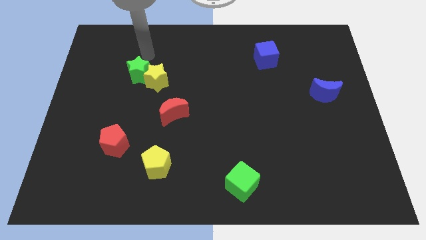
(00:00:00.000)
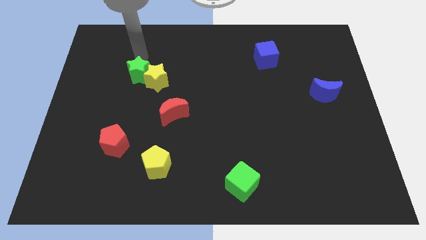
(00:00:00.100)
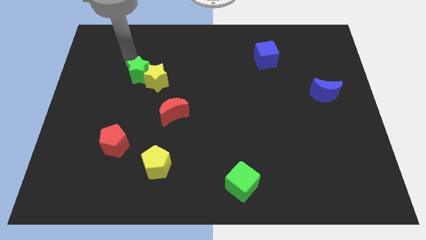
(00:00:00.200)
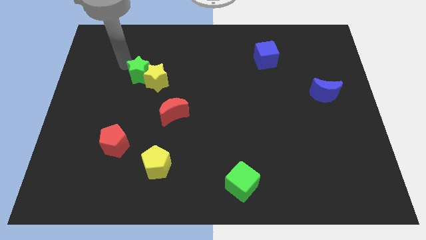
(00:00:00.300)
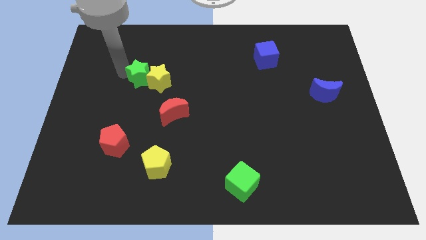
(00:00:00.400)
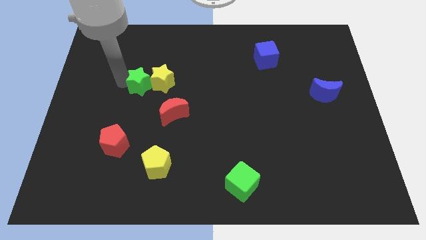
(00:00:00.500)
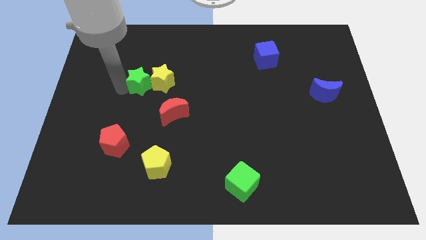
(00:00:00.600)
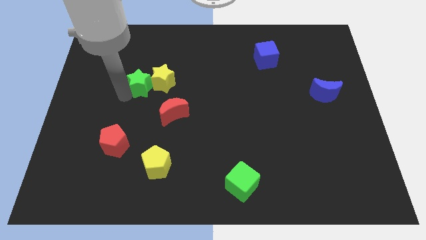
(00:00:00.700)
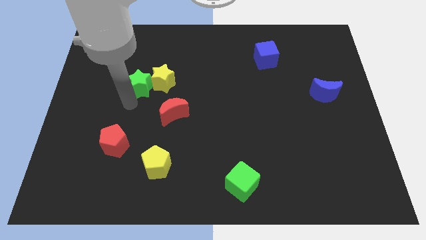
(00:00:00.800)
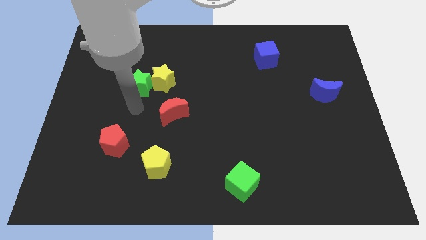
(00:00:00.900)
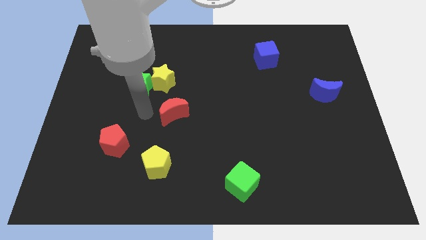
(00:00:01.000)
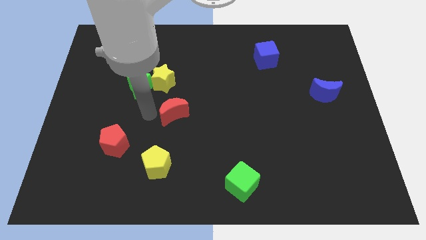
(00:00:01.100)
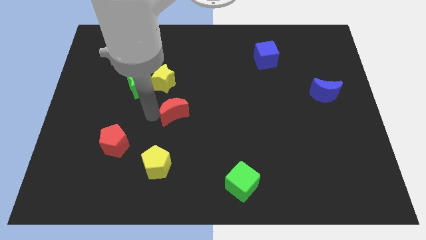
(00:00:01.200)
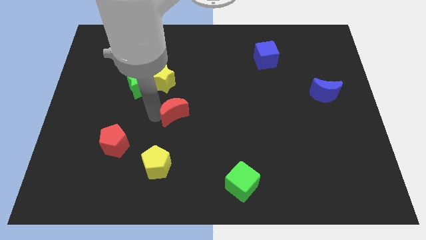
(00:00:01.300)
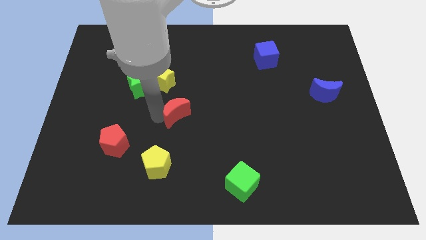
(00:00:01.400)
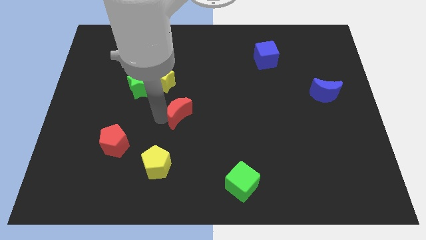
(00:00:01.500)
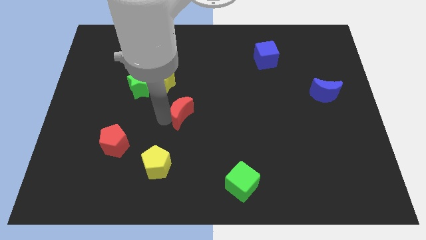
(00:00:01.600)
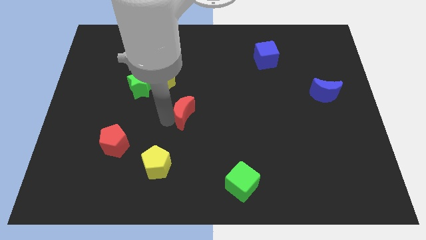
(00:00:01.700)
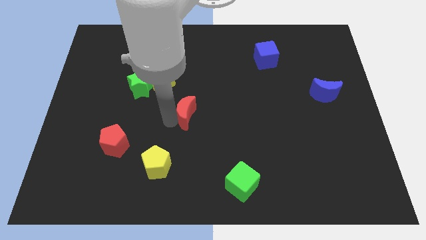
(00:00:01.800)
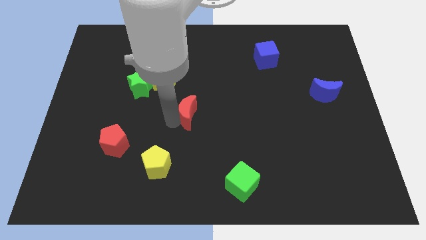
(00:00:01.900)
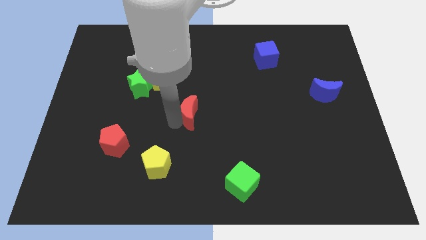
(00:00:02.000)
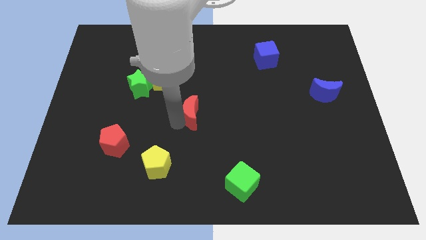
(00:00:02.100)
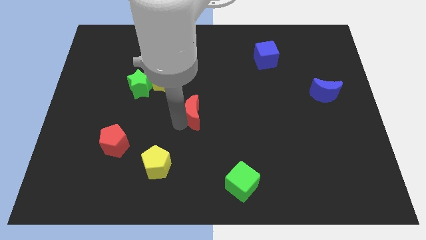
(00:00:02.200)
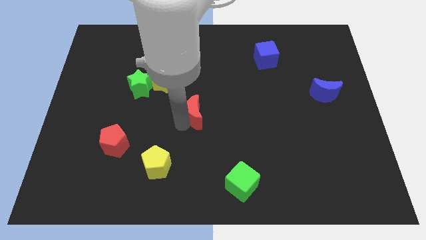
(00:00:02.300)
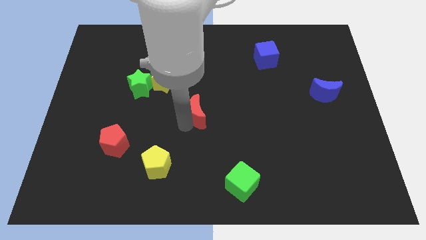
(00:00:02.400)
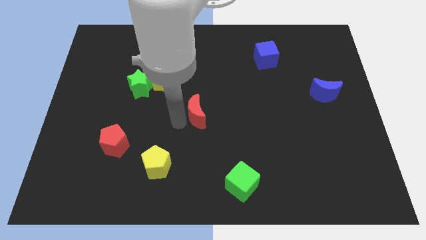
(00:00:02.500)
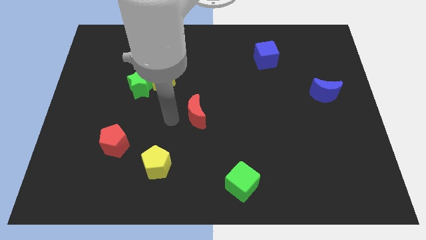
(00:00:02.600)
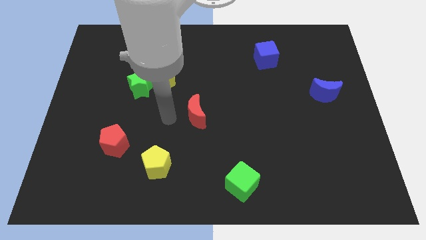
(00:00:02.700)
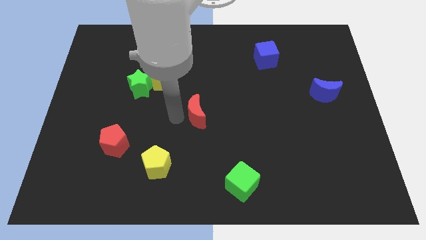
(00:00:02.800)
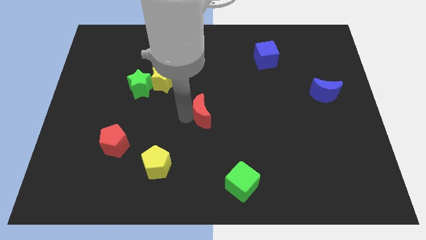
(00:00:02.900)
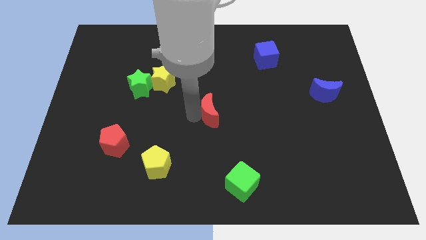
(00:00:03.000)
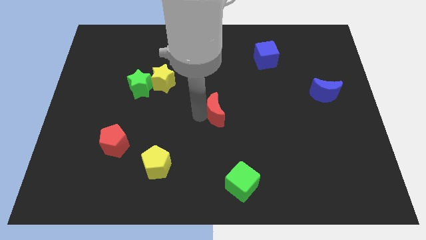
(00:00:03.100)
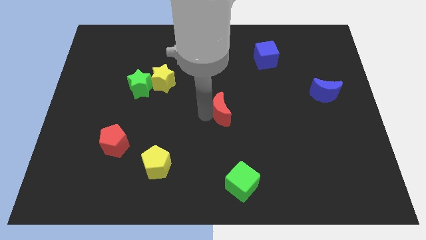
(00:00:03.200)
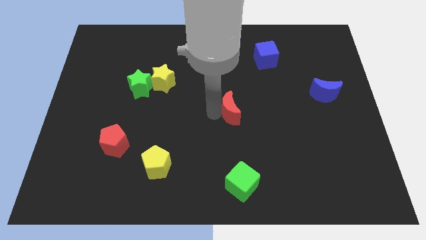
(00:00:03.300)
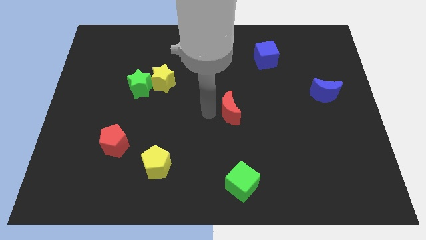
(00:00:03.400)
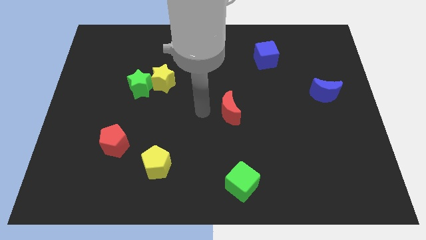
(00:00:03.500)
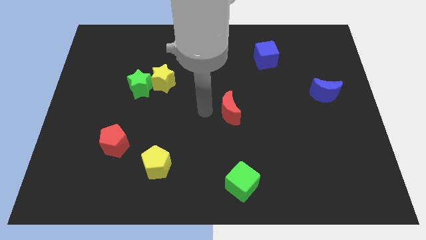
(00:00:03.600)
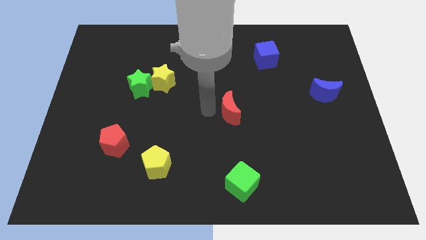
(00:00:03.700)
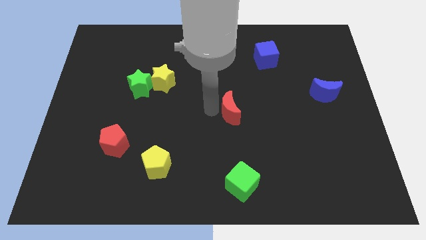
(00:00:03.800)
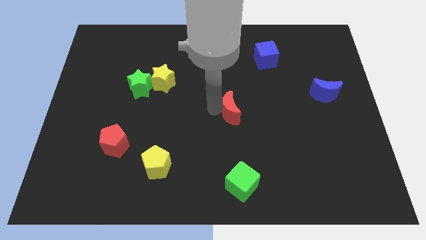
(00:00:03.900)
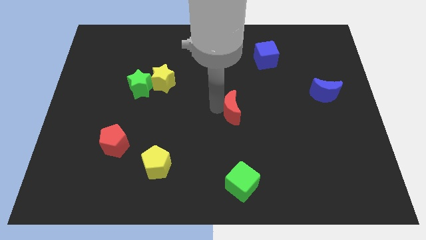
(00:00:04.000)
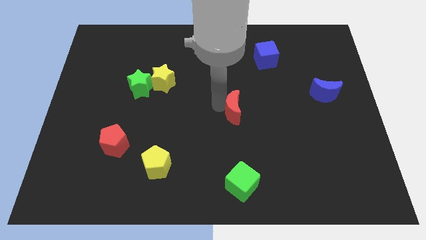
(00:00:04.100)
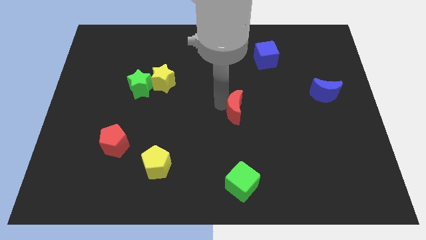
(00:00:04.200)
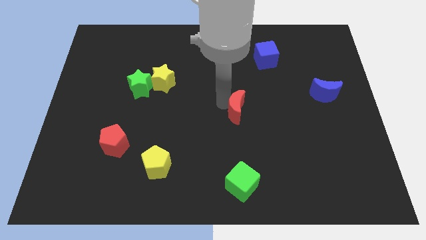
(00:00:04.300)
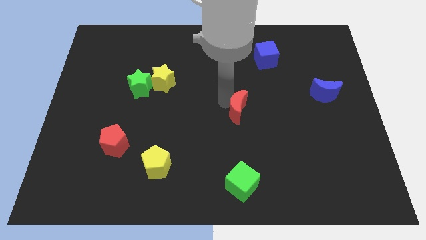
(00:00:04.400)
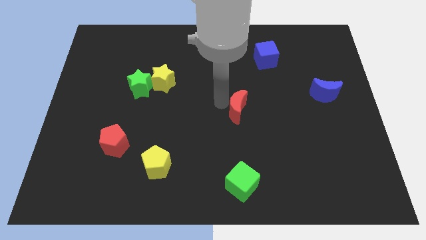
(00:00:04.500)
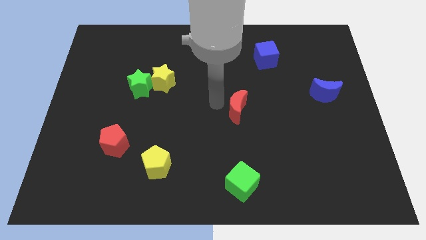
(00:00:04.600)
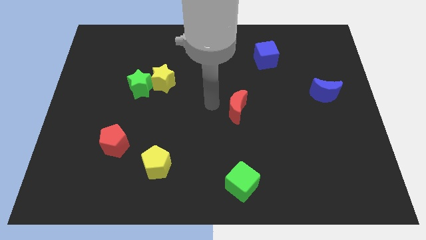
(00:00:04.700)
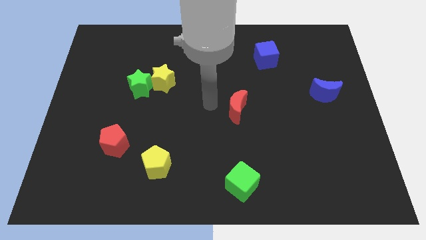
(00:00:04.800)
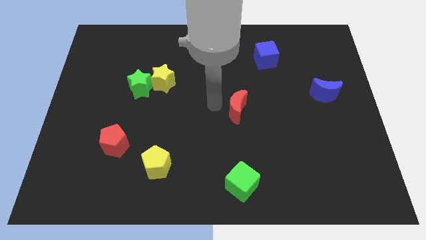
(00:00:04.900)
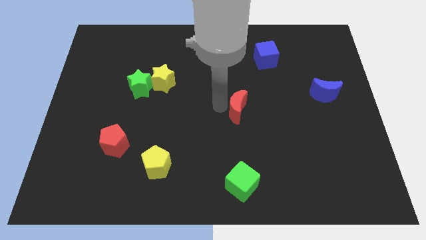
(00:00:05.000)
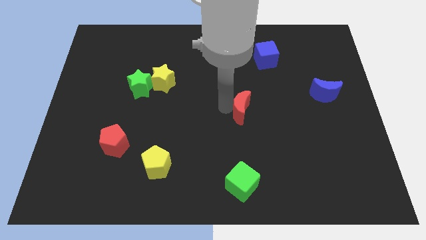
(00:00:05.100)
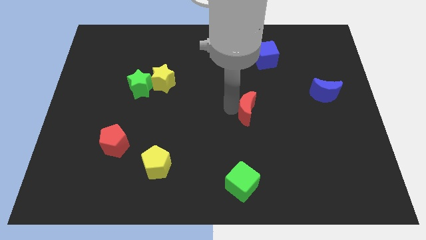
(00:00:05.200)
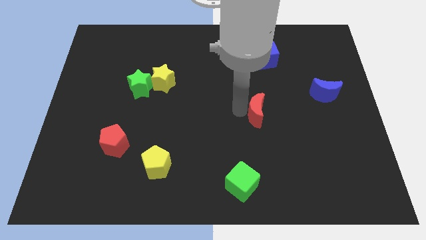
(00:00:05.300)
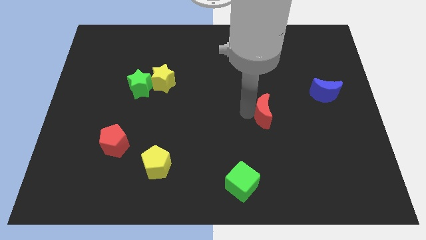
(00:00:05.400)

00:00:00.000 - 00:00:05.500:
move the red moon to the right

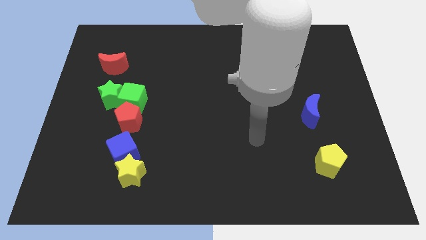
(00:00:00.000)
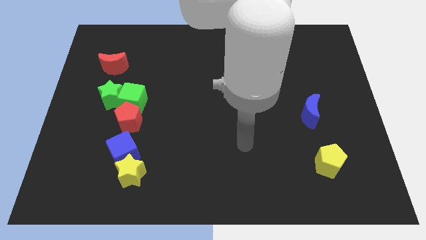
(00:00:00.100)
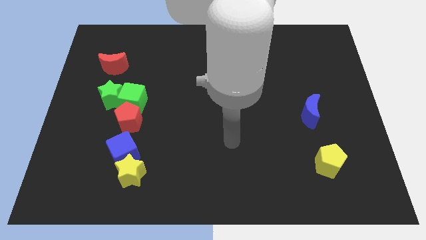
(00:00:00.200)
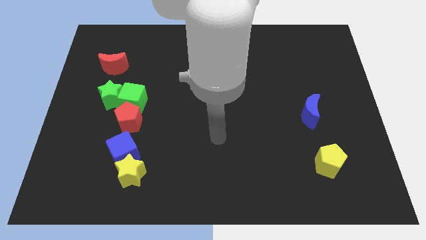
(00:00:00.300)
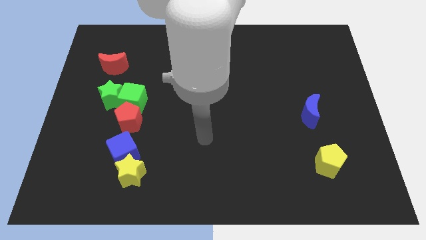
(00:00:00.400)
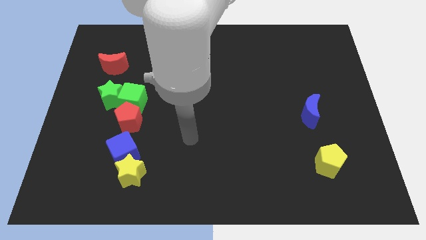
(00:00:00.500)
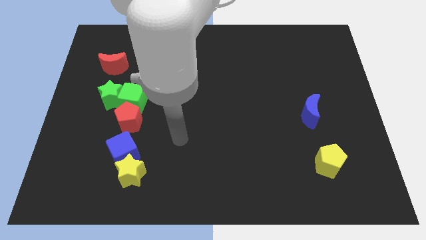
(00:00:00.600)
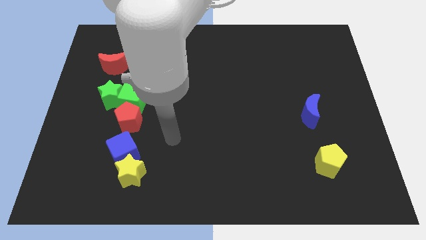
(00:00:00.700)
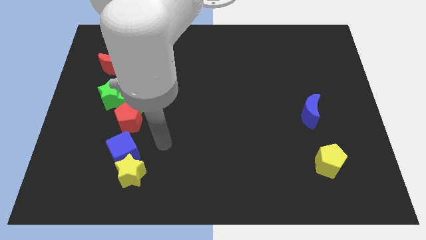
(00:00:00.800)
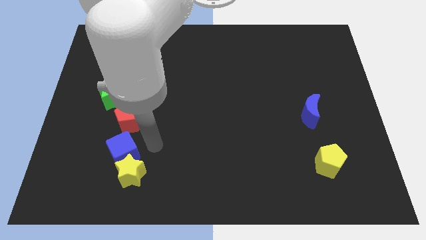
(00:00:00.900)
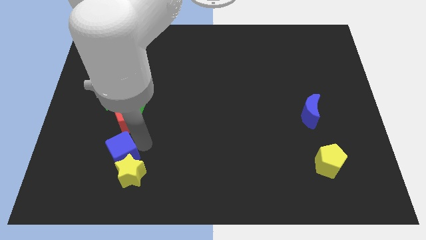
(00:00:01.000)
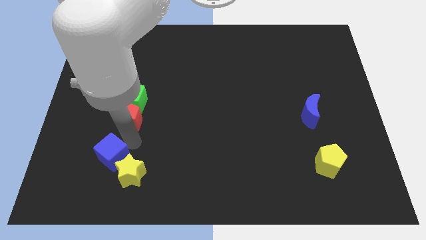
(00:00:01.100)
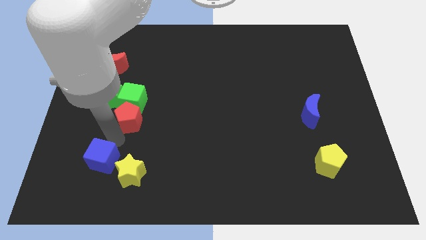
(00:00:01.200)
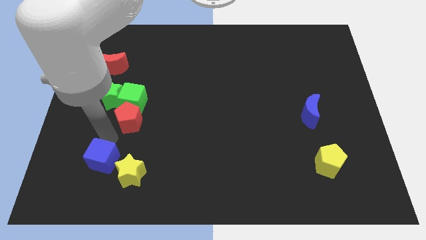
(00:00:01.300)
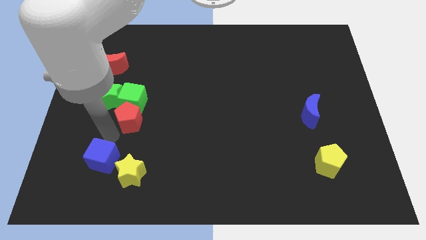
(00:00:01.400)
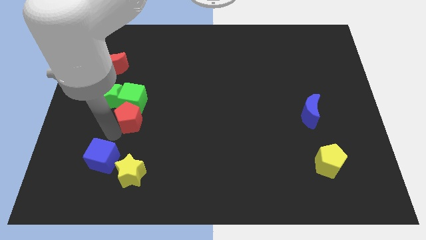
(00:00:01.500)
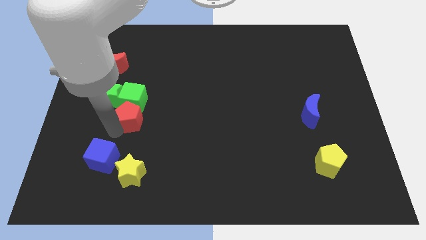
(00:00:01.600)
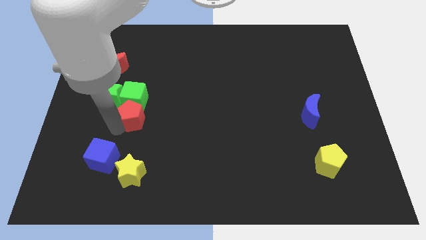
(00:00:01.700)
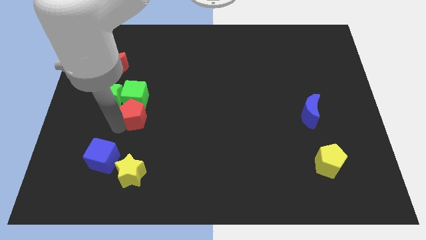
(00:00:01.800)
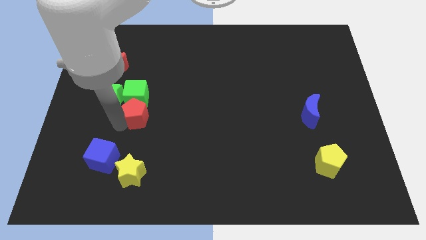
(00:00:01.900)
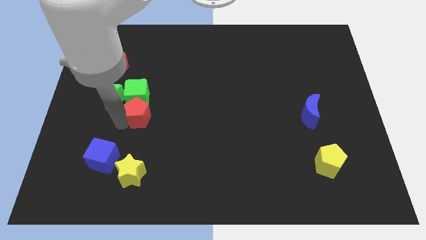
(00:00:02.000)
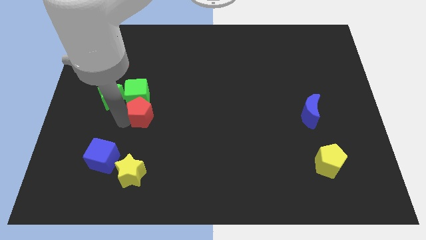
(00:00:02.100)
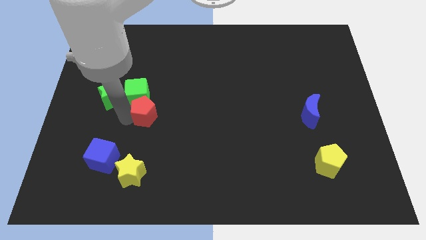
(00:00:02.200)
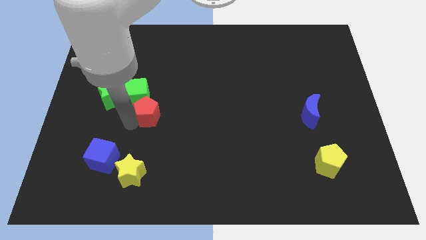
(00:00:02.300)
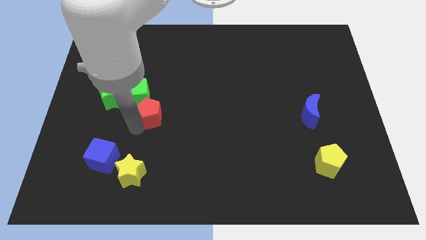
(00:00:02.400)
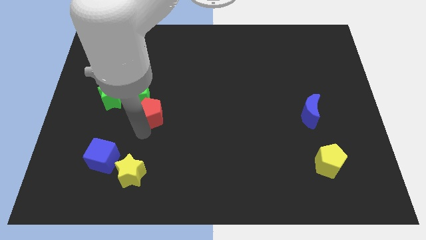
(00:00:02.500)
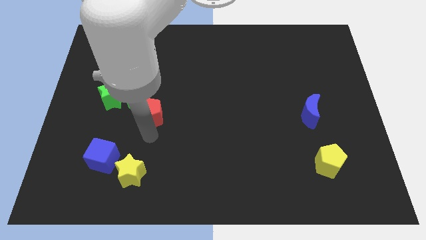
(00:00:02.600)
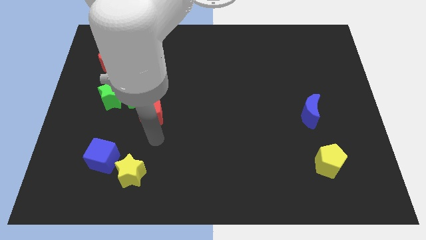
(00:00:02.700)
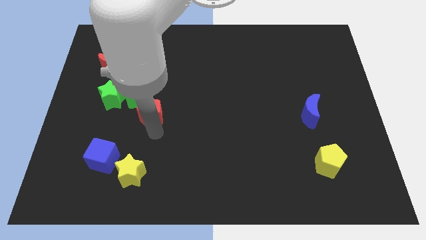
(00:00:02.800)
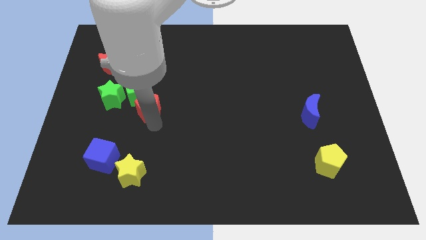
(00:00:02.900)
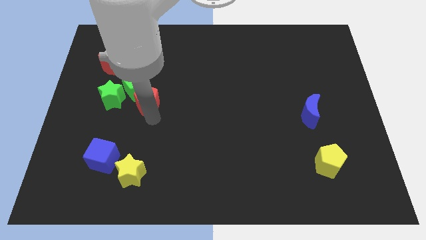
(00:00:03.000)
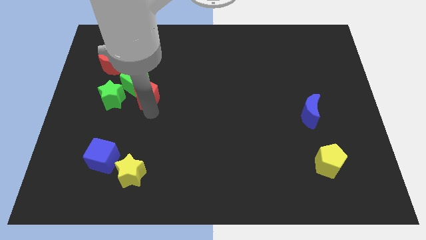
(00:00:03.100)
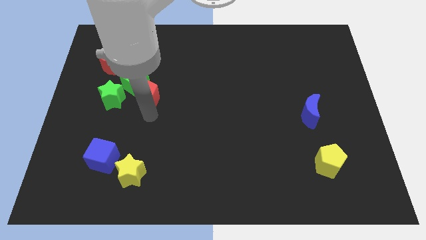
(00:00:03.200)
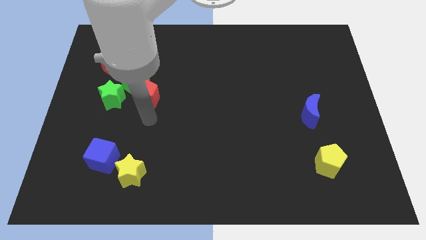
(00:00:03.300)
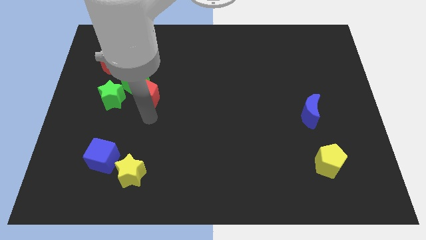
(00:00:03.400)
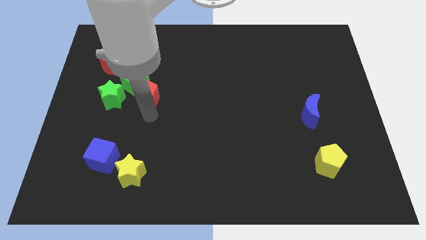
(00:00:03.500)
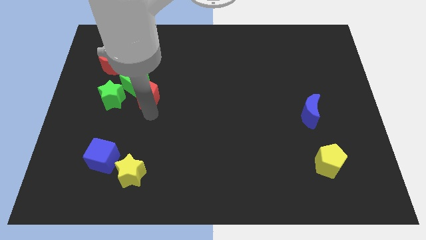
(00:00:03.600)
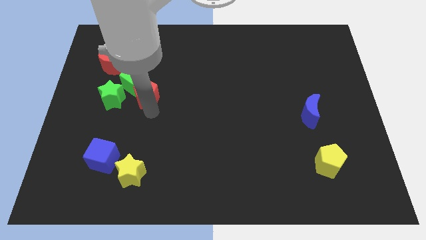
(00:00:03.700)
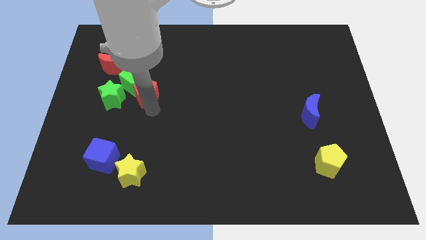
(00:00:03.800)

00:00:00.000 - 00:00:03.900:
push the red pentagon up a bit
